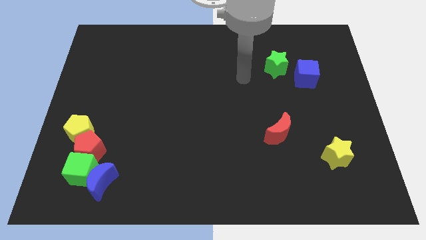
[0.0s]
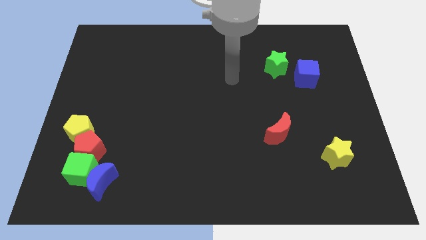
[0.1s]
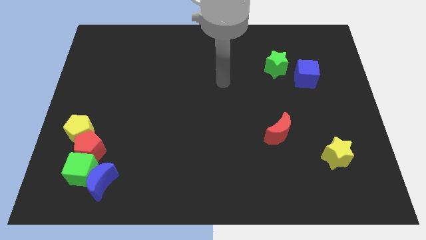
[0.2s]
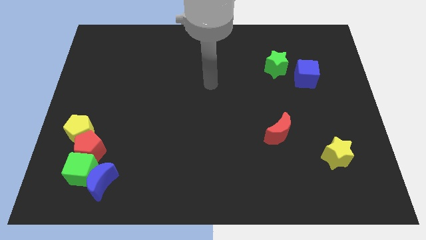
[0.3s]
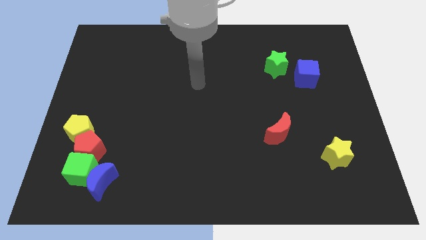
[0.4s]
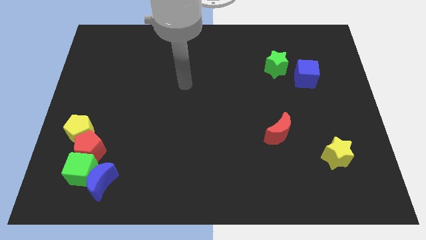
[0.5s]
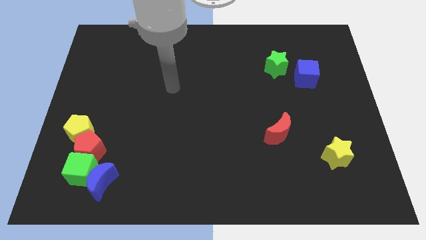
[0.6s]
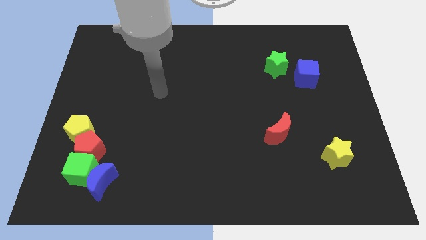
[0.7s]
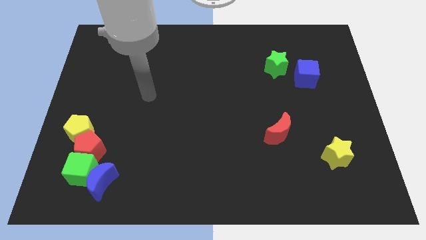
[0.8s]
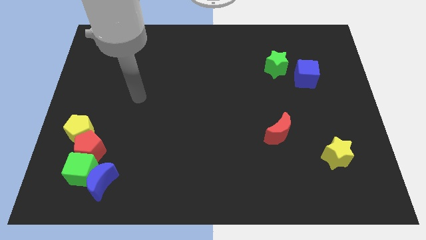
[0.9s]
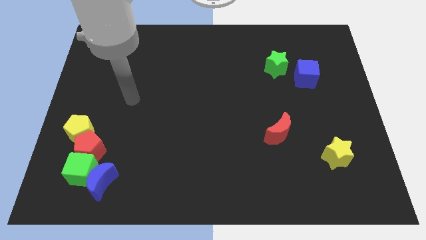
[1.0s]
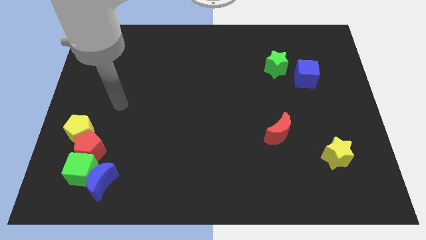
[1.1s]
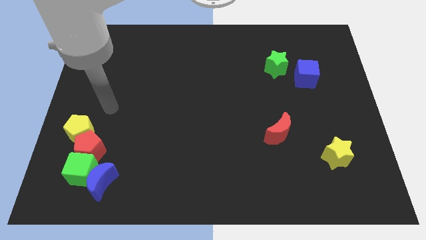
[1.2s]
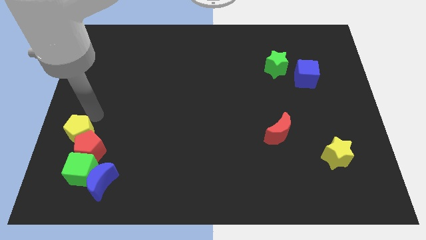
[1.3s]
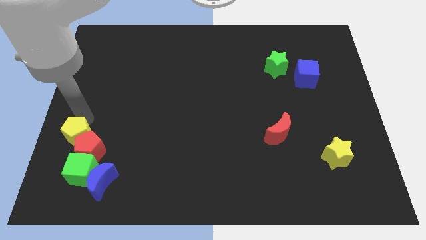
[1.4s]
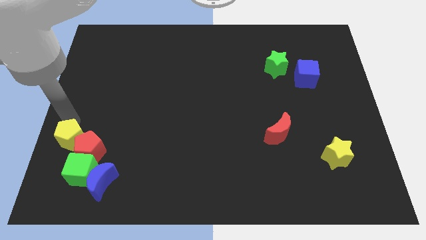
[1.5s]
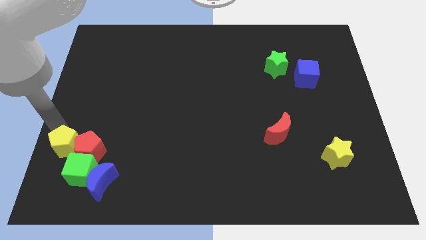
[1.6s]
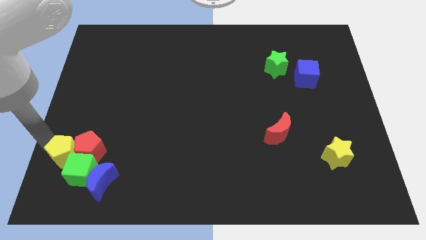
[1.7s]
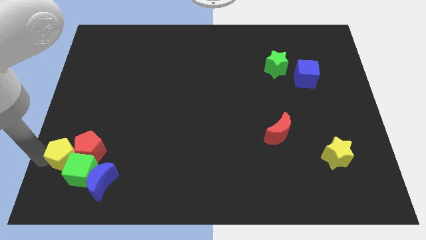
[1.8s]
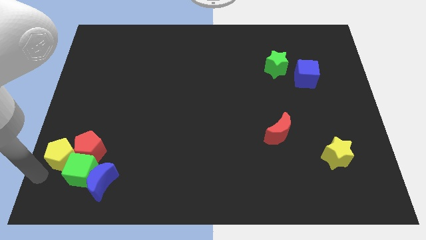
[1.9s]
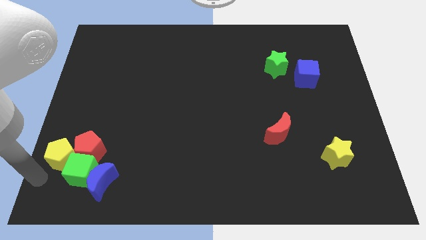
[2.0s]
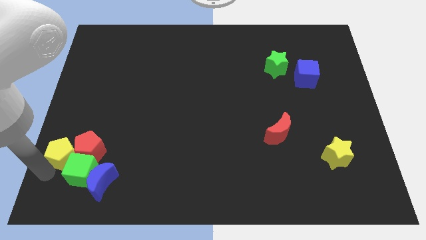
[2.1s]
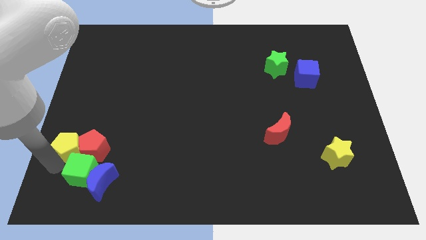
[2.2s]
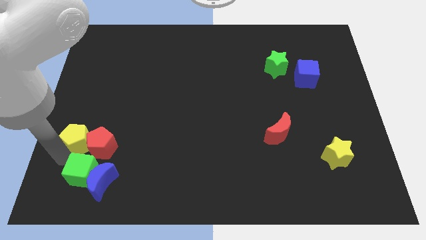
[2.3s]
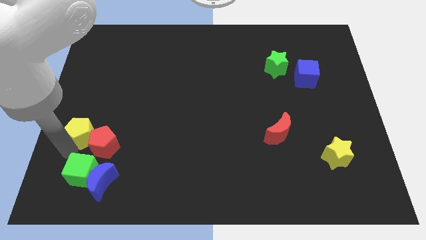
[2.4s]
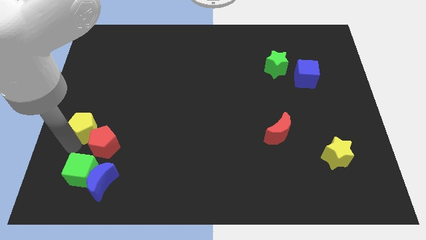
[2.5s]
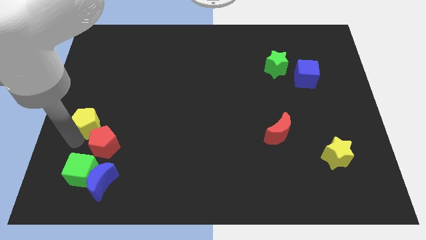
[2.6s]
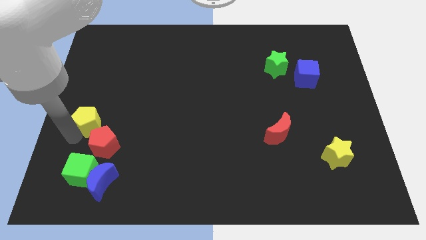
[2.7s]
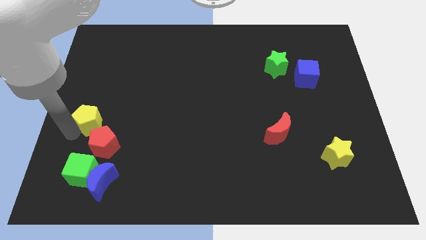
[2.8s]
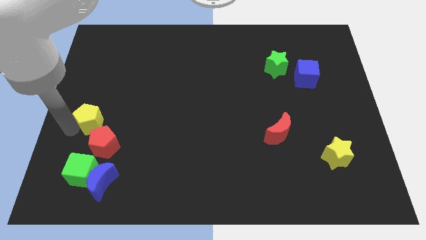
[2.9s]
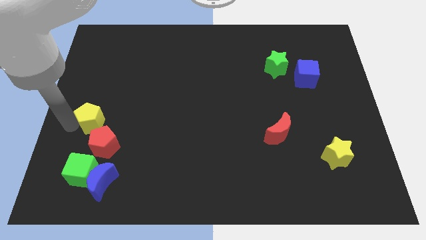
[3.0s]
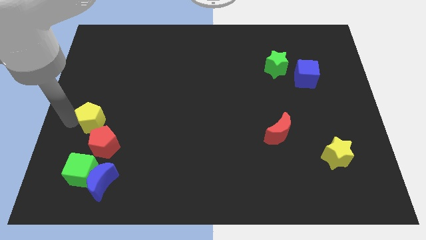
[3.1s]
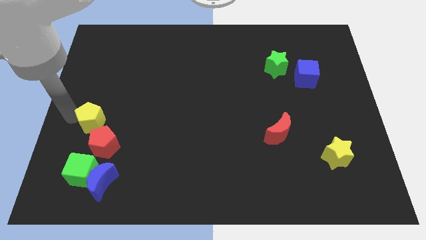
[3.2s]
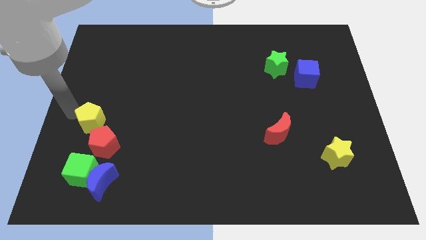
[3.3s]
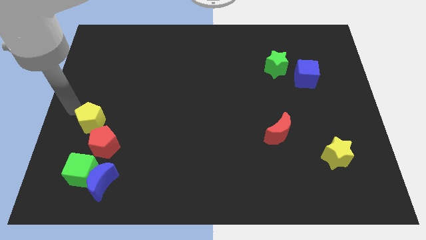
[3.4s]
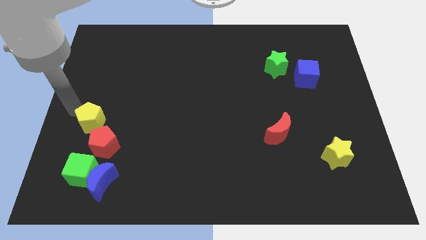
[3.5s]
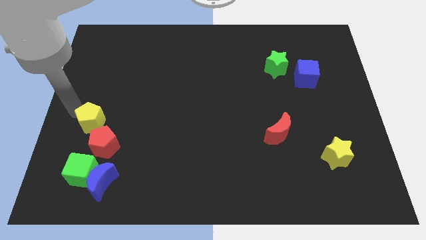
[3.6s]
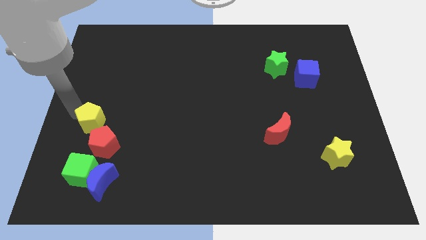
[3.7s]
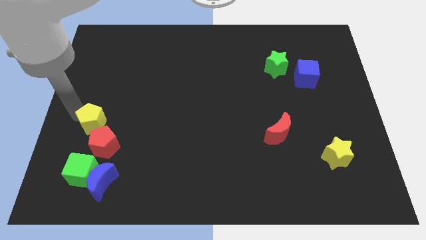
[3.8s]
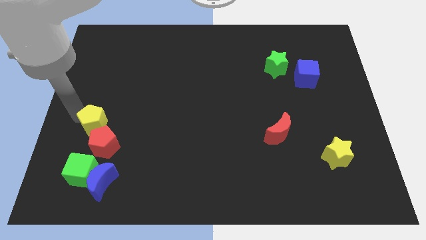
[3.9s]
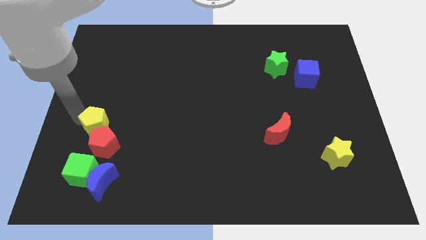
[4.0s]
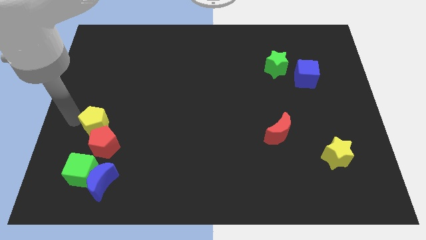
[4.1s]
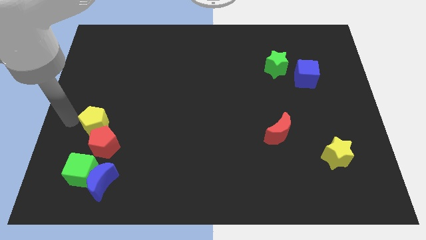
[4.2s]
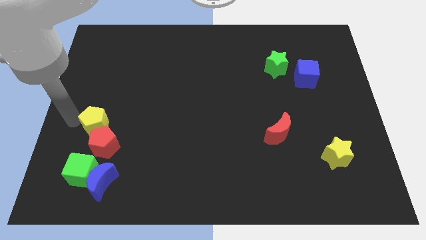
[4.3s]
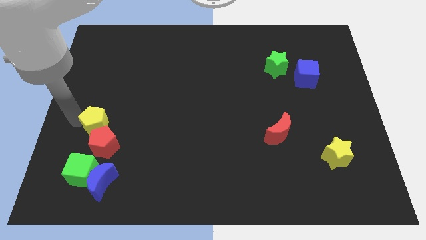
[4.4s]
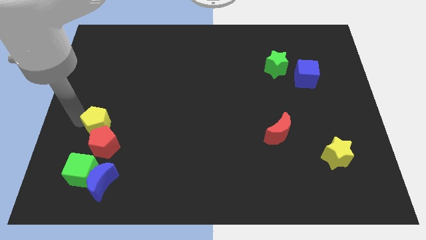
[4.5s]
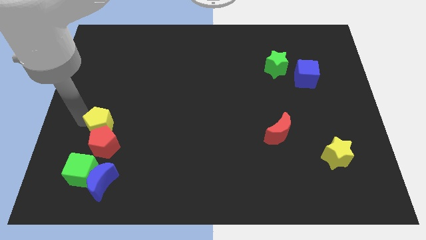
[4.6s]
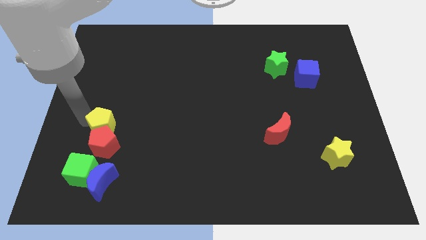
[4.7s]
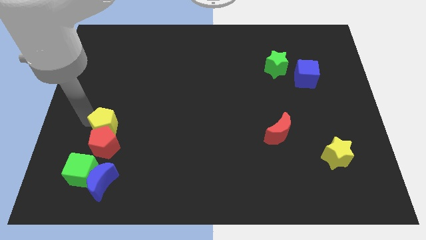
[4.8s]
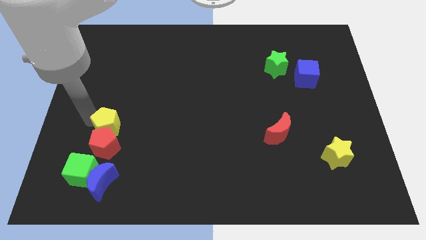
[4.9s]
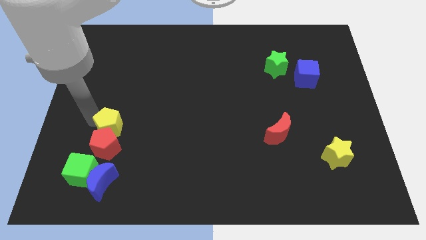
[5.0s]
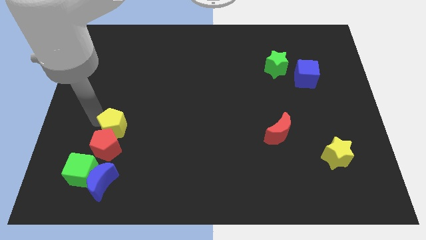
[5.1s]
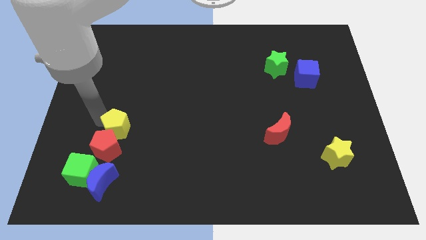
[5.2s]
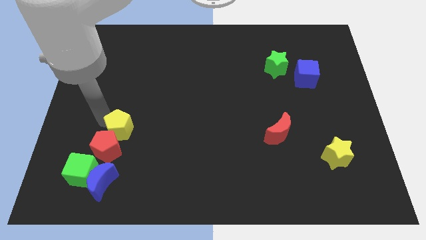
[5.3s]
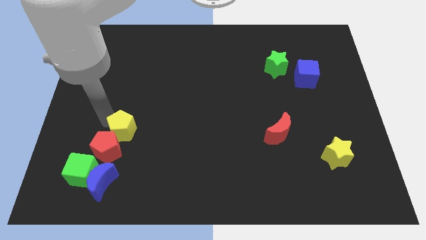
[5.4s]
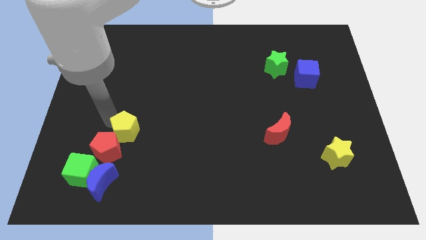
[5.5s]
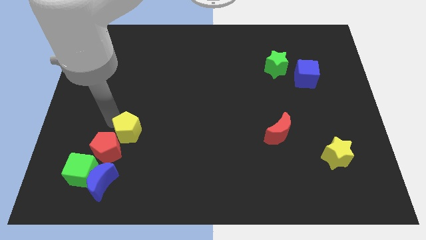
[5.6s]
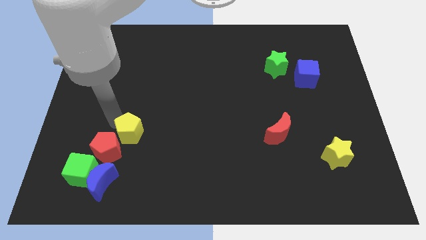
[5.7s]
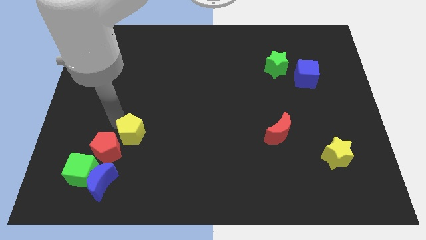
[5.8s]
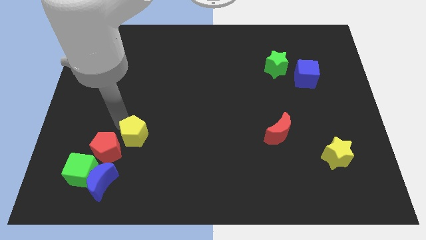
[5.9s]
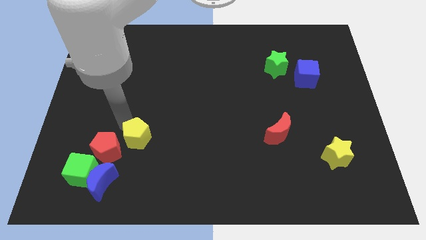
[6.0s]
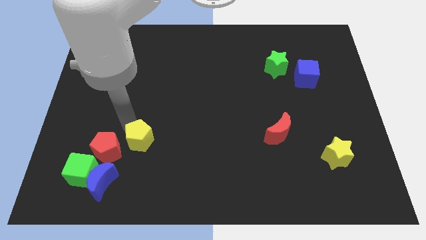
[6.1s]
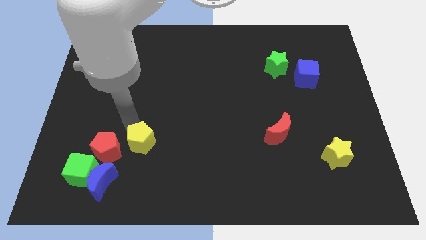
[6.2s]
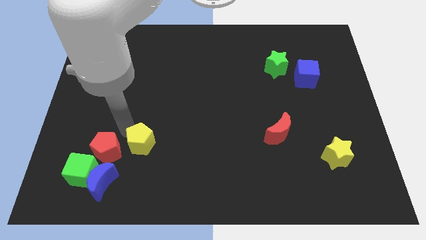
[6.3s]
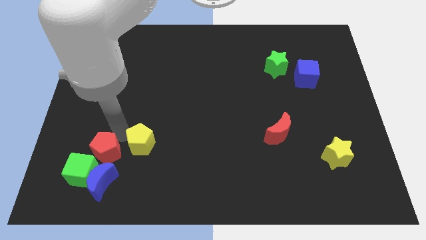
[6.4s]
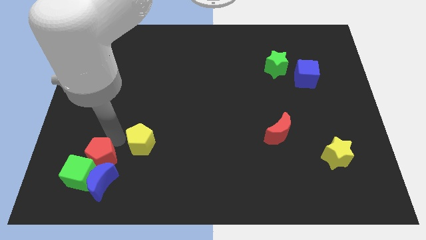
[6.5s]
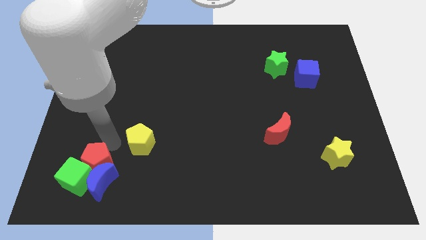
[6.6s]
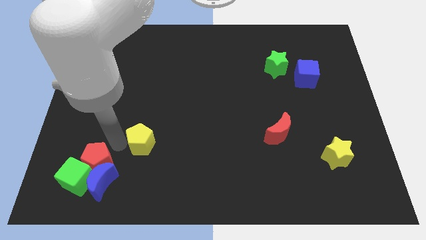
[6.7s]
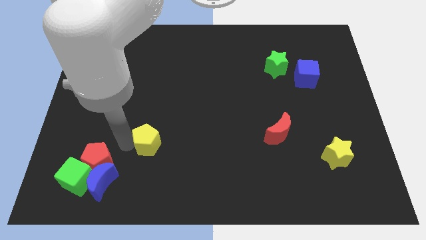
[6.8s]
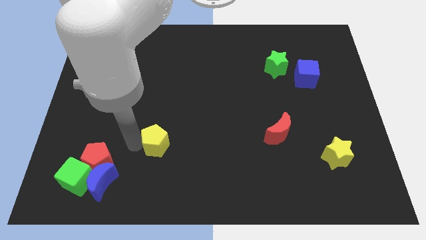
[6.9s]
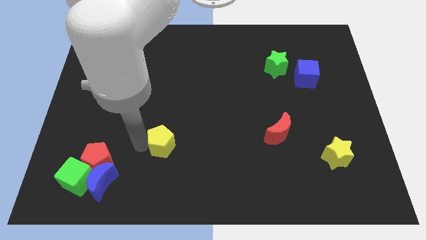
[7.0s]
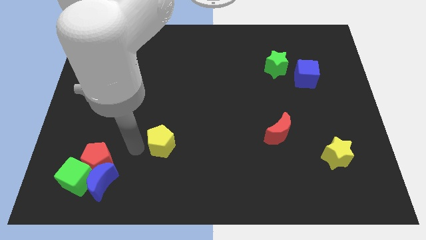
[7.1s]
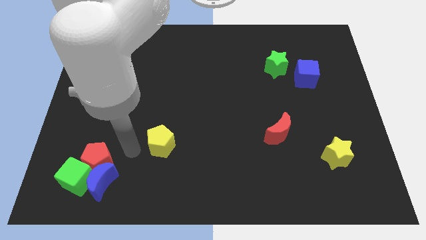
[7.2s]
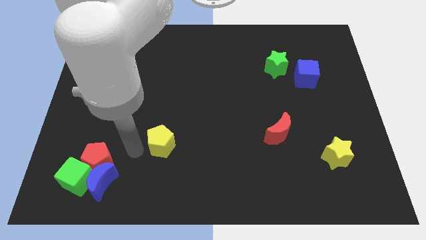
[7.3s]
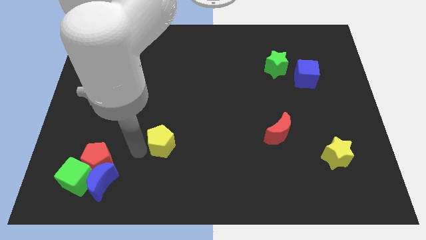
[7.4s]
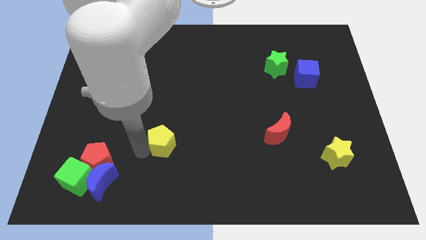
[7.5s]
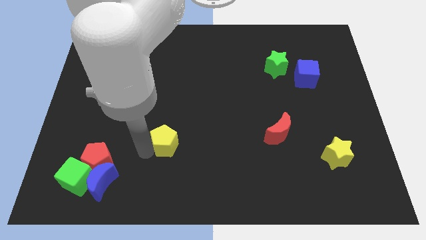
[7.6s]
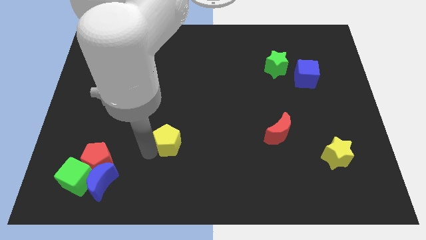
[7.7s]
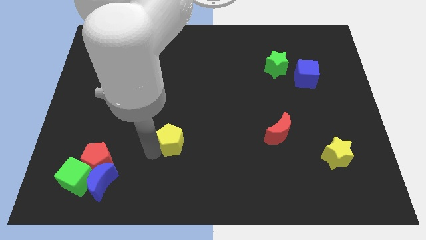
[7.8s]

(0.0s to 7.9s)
move the yellow pentagon to the right
